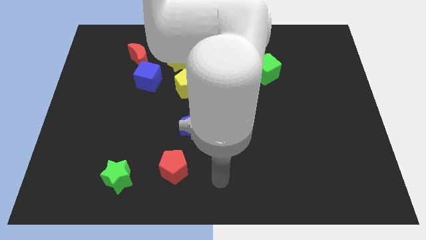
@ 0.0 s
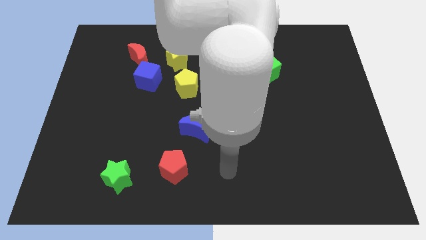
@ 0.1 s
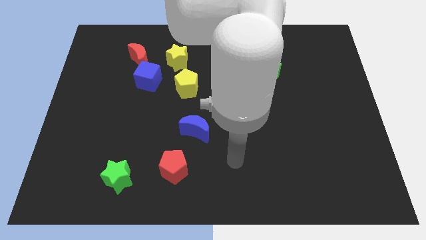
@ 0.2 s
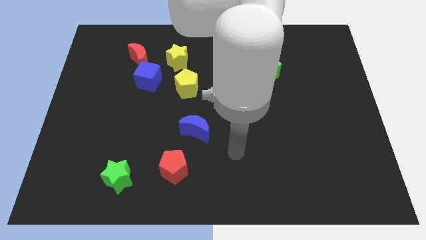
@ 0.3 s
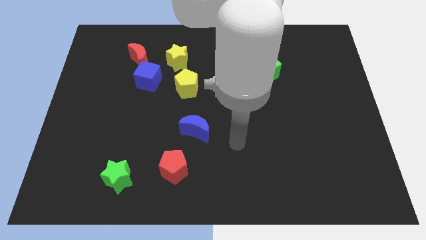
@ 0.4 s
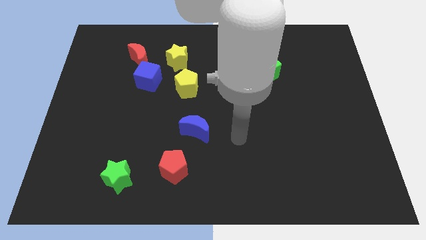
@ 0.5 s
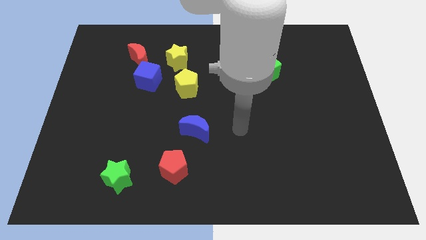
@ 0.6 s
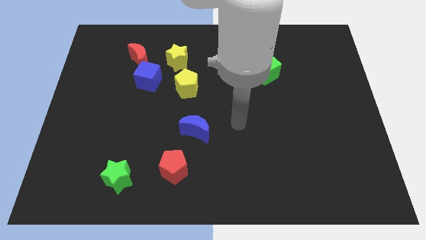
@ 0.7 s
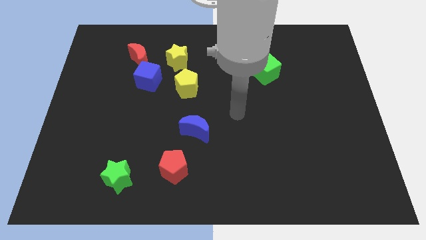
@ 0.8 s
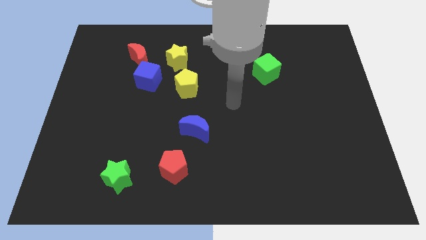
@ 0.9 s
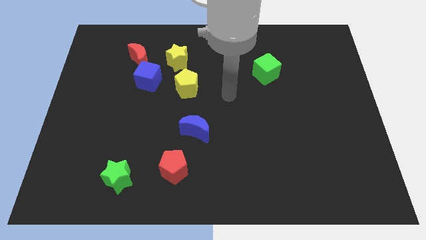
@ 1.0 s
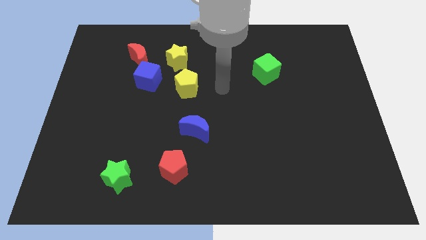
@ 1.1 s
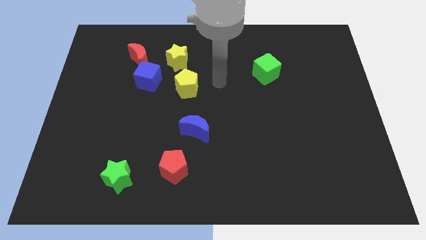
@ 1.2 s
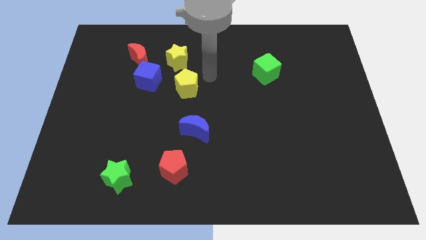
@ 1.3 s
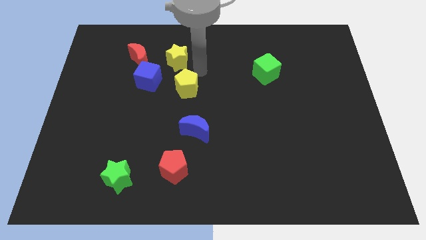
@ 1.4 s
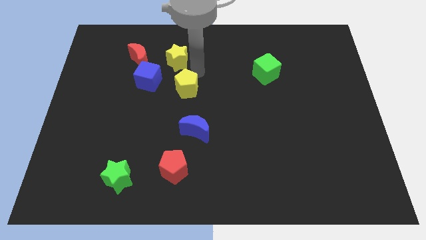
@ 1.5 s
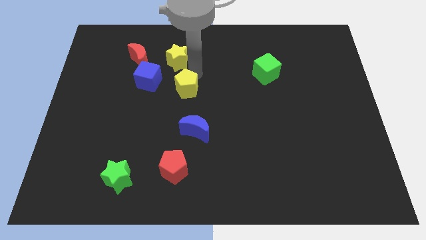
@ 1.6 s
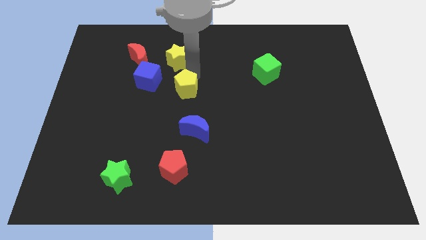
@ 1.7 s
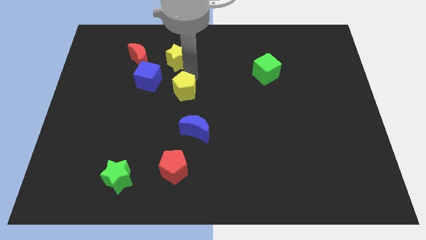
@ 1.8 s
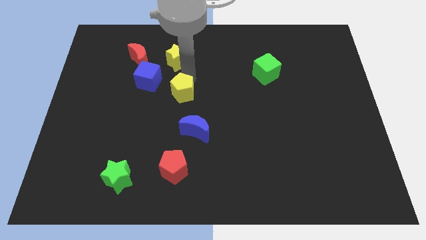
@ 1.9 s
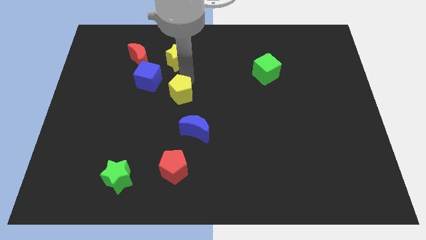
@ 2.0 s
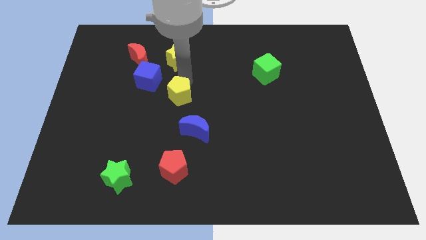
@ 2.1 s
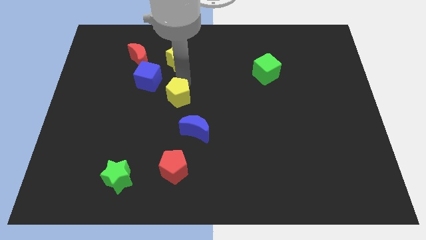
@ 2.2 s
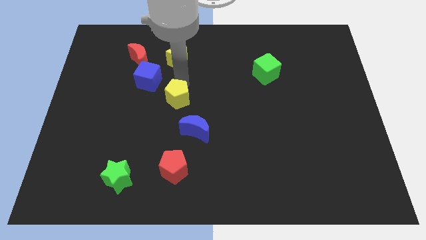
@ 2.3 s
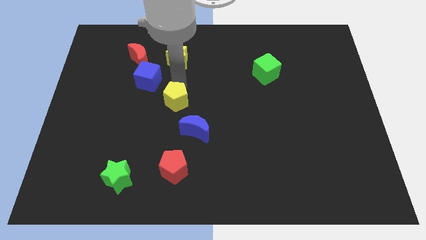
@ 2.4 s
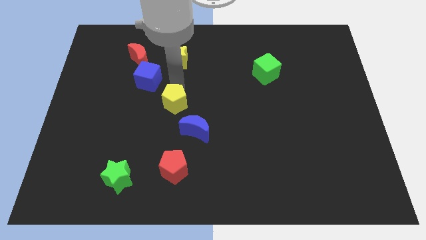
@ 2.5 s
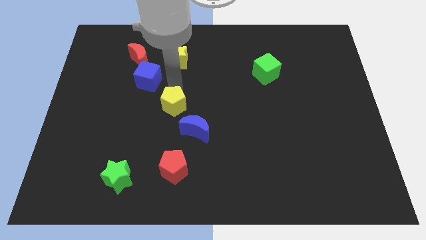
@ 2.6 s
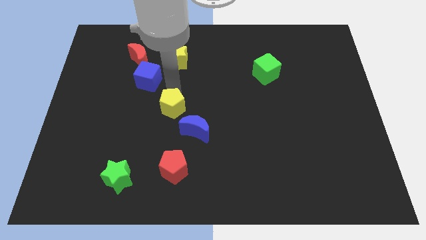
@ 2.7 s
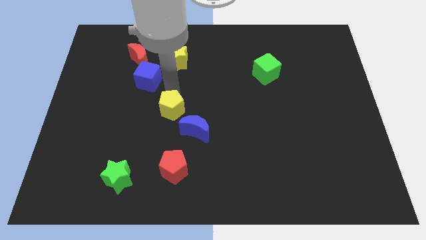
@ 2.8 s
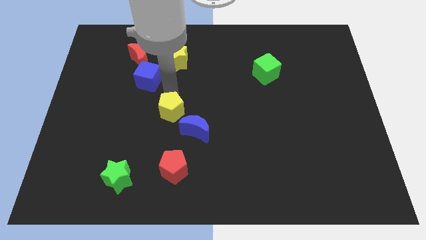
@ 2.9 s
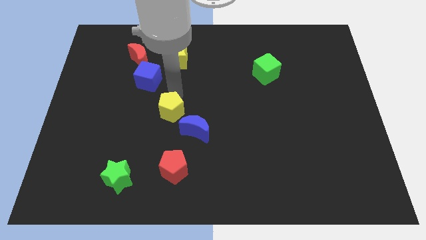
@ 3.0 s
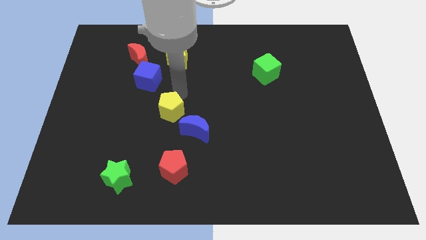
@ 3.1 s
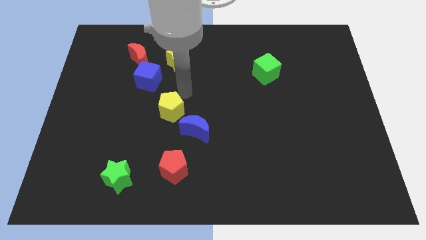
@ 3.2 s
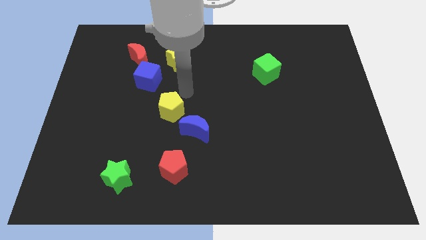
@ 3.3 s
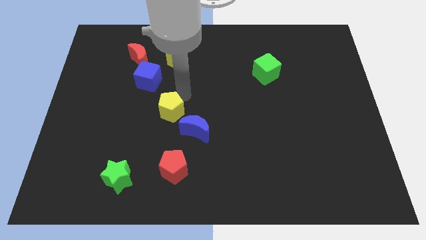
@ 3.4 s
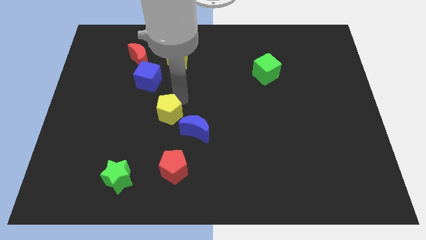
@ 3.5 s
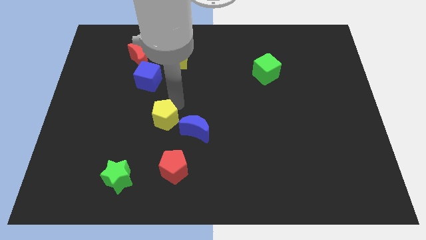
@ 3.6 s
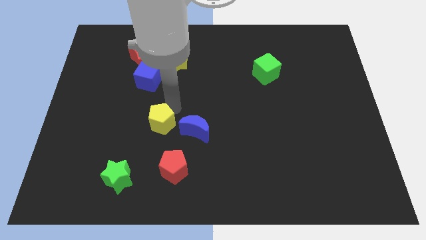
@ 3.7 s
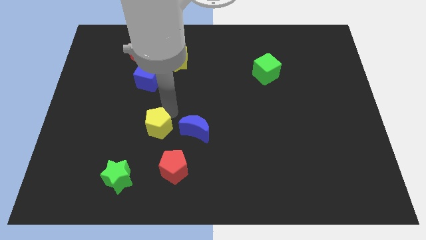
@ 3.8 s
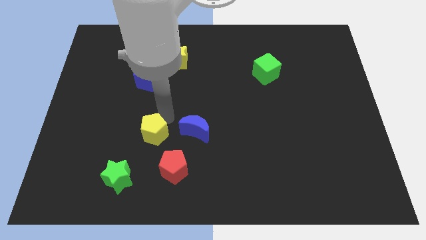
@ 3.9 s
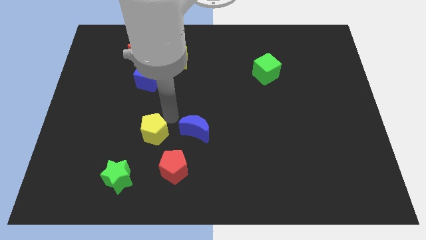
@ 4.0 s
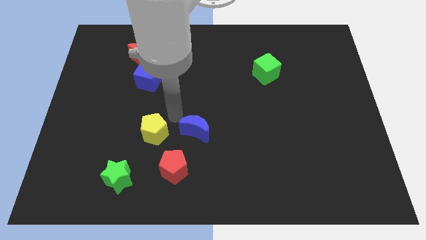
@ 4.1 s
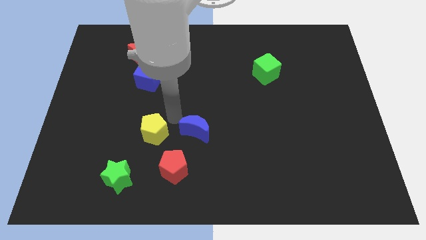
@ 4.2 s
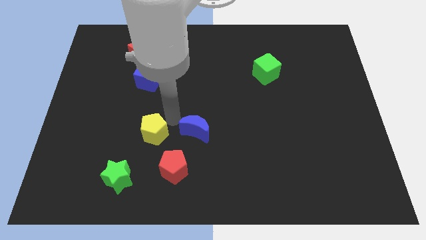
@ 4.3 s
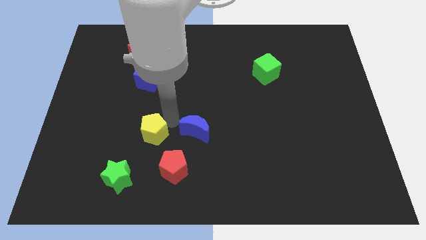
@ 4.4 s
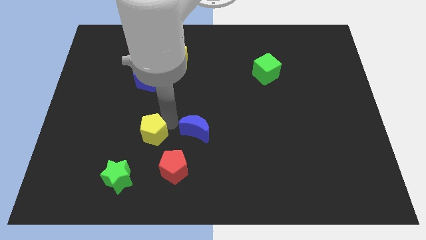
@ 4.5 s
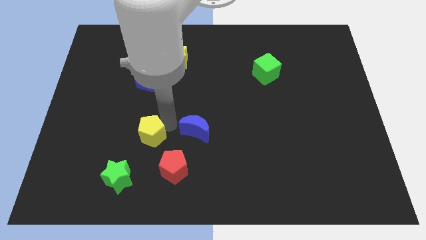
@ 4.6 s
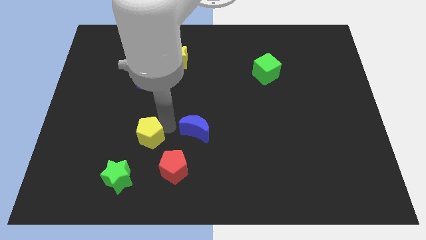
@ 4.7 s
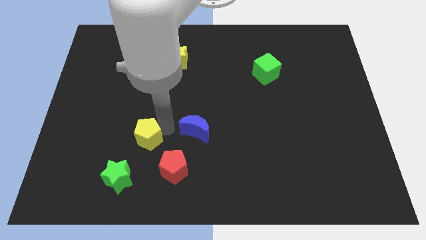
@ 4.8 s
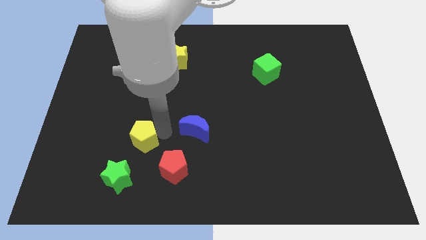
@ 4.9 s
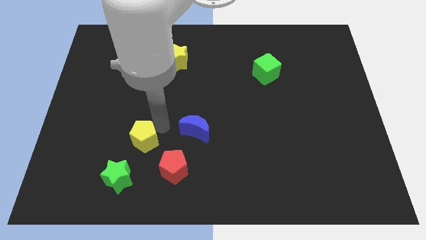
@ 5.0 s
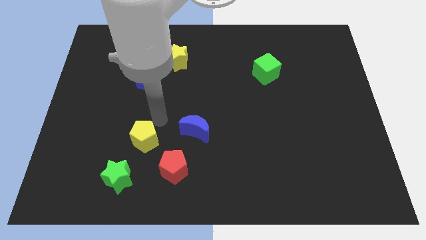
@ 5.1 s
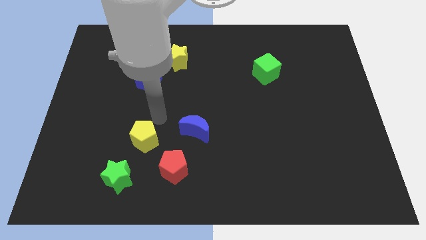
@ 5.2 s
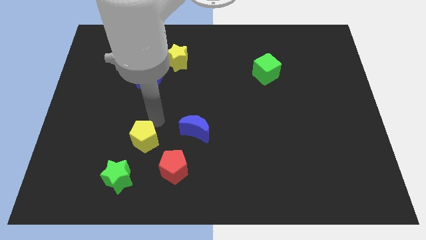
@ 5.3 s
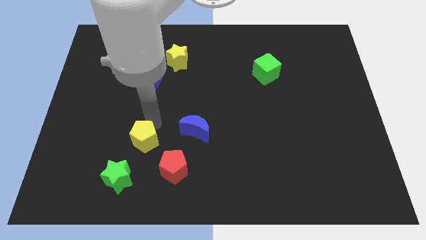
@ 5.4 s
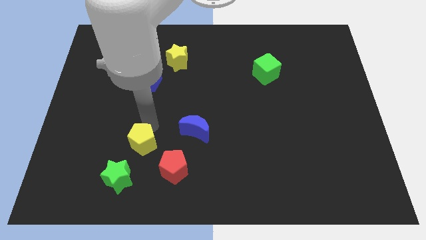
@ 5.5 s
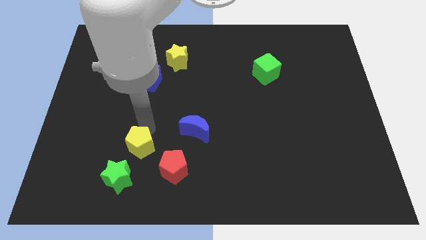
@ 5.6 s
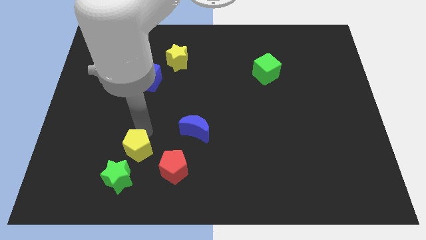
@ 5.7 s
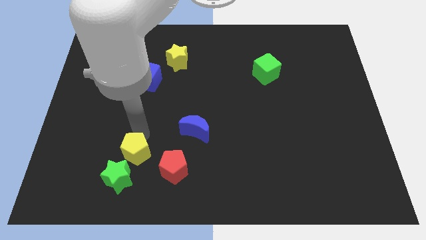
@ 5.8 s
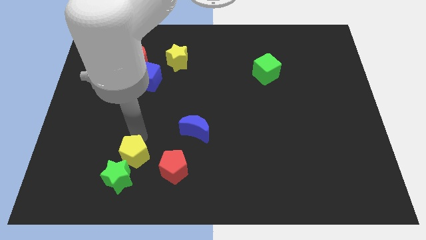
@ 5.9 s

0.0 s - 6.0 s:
put the yellow pentagon next to the green star

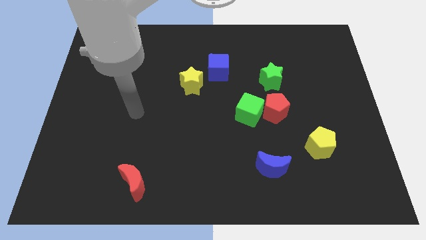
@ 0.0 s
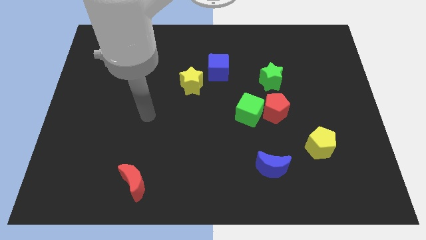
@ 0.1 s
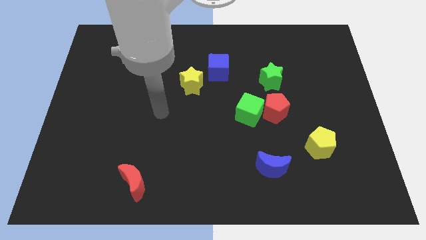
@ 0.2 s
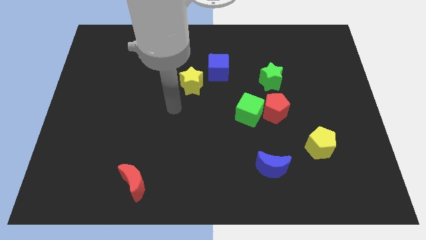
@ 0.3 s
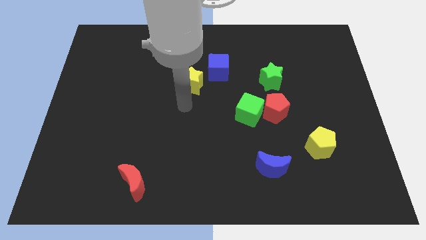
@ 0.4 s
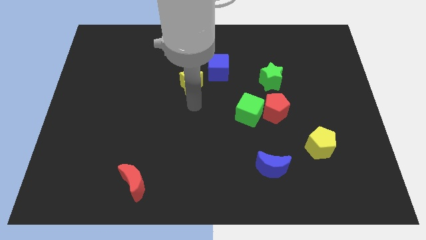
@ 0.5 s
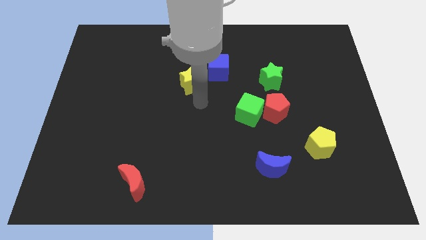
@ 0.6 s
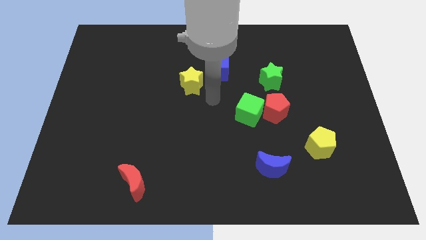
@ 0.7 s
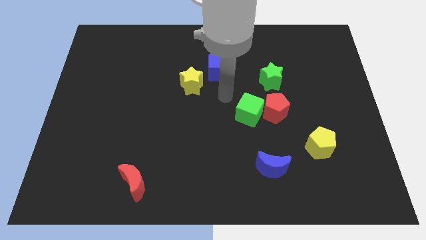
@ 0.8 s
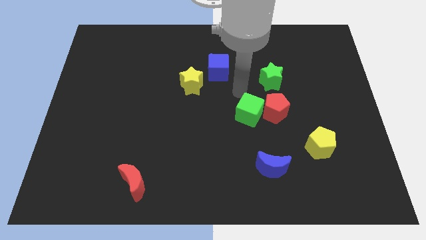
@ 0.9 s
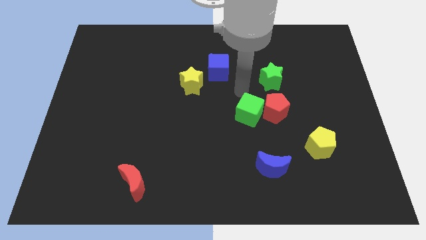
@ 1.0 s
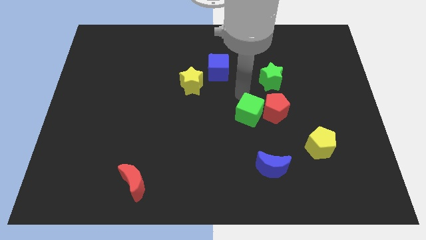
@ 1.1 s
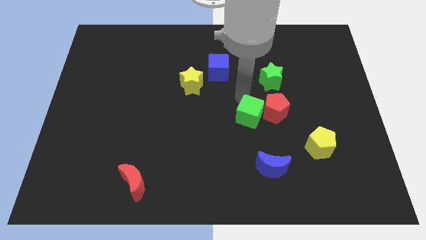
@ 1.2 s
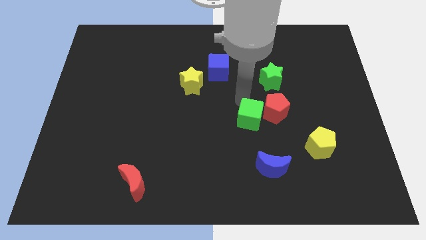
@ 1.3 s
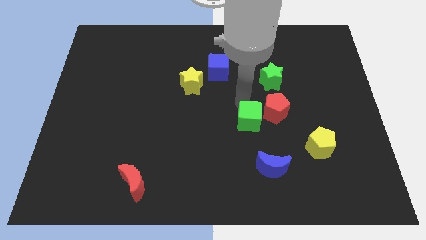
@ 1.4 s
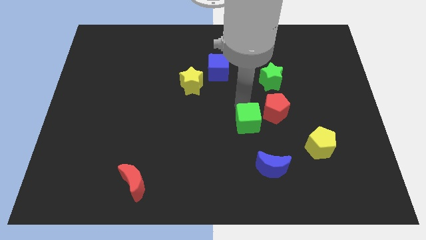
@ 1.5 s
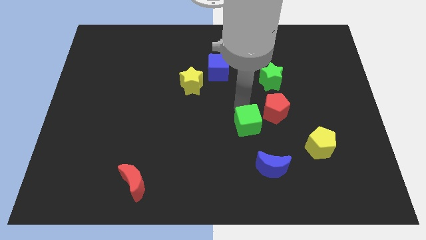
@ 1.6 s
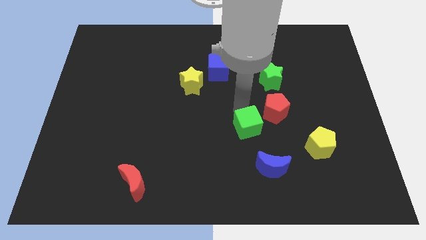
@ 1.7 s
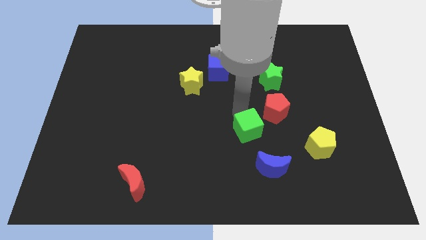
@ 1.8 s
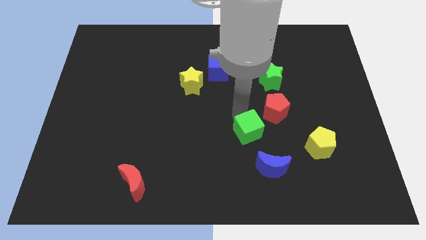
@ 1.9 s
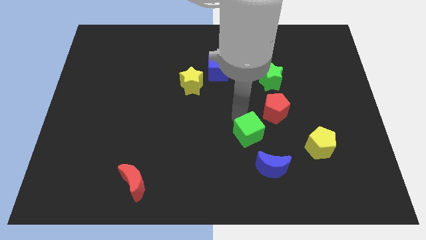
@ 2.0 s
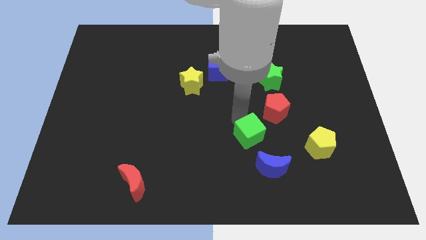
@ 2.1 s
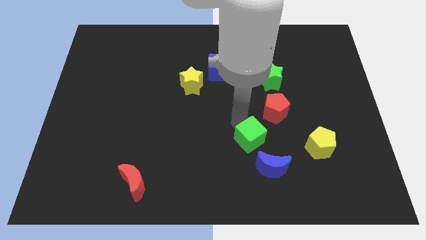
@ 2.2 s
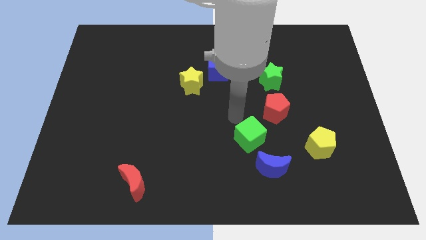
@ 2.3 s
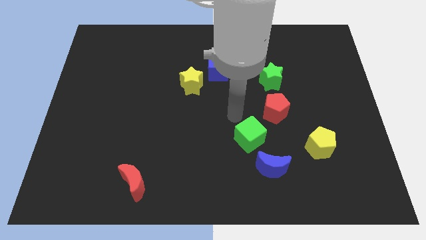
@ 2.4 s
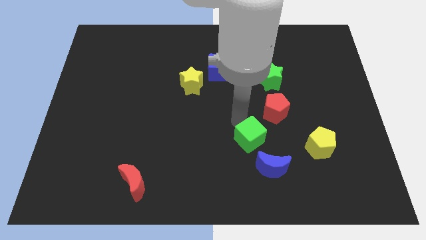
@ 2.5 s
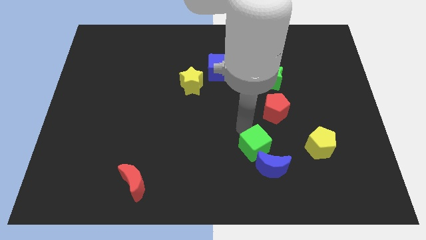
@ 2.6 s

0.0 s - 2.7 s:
slide the green cube towards the blue moon
